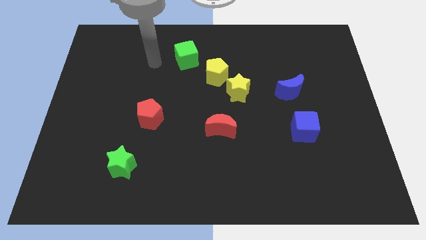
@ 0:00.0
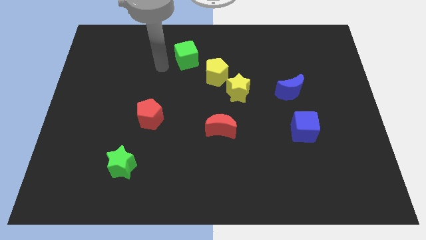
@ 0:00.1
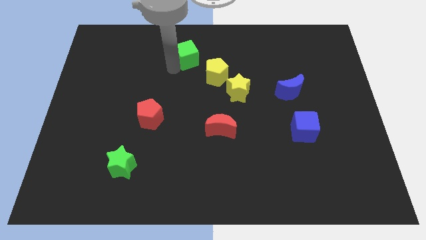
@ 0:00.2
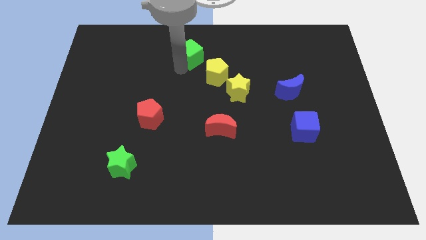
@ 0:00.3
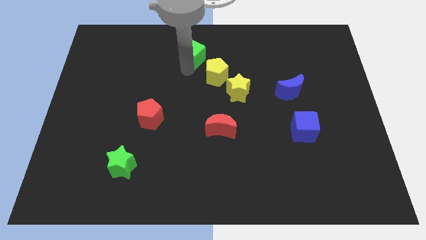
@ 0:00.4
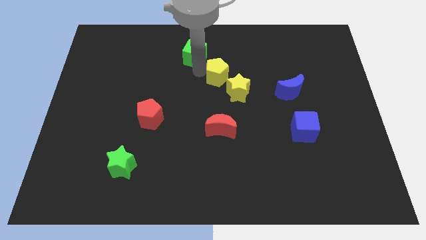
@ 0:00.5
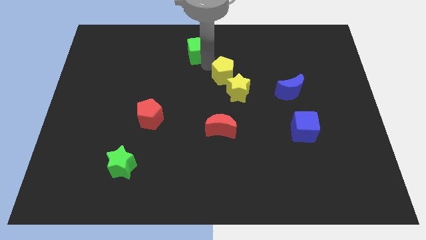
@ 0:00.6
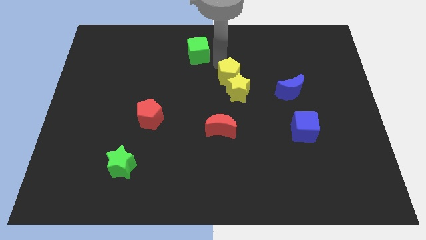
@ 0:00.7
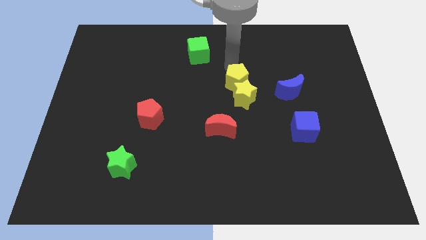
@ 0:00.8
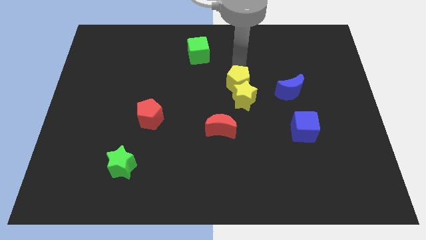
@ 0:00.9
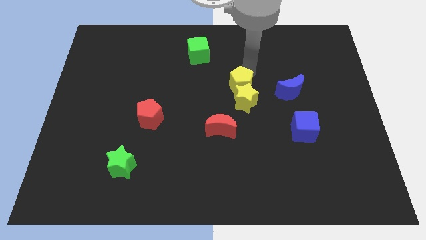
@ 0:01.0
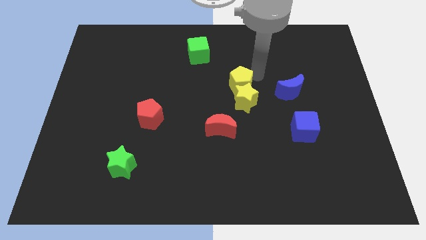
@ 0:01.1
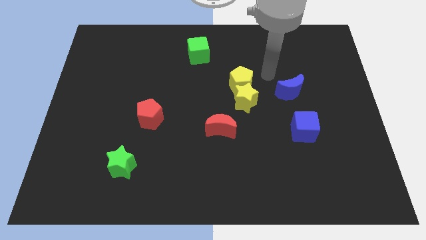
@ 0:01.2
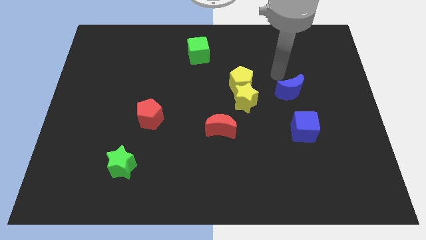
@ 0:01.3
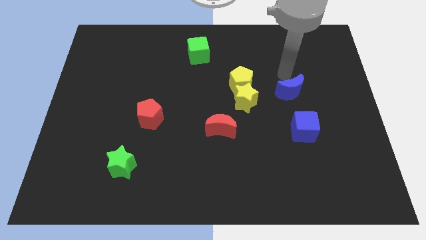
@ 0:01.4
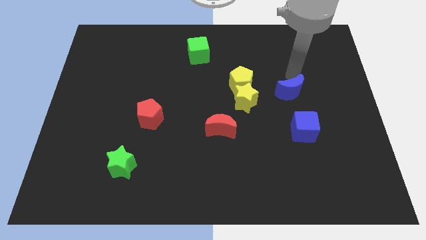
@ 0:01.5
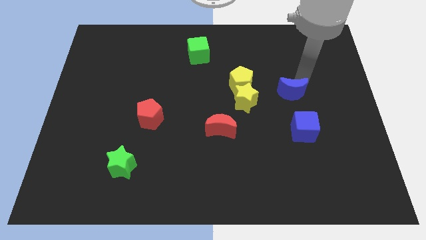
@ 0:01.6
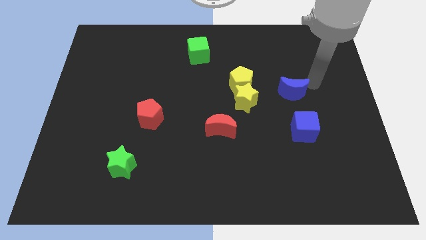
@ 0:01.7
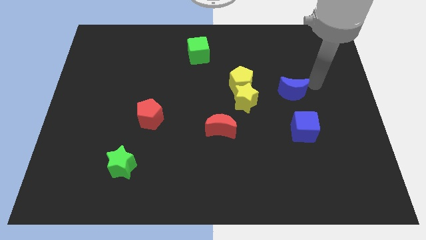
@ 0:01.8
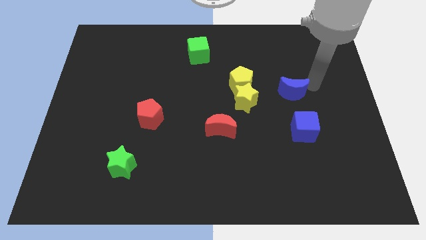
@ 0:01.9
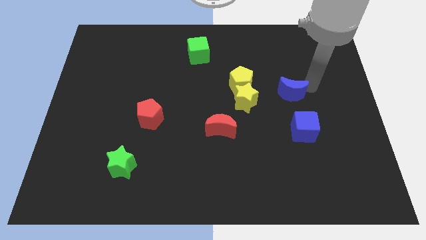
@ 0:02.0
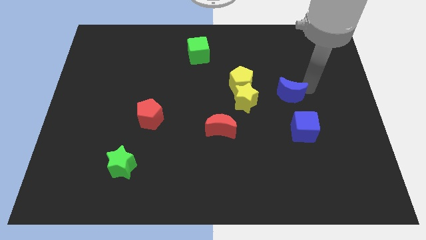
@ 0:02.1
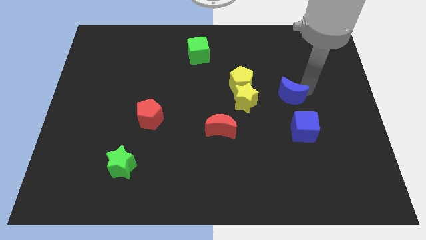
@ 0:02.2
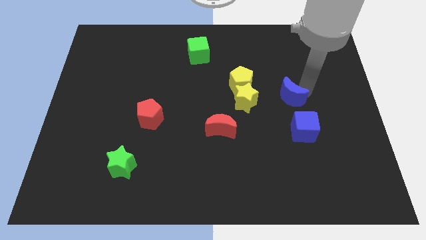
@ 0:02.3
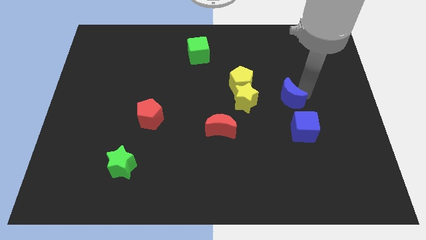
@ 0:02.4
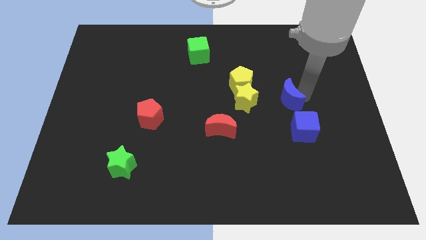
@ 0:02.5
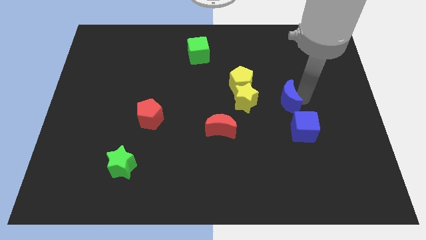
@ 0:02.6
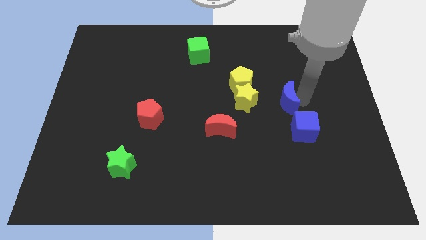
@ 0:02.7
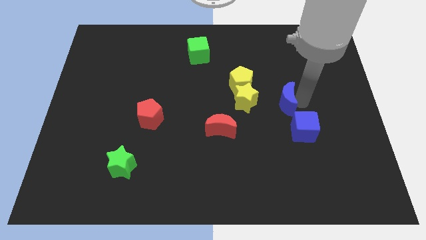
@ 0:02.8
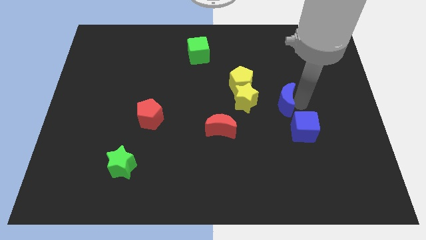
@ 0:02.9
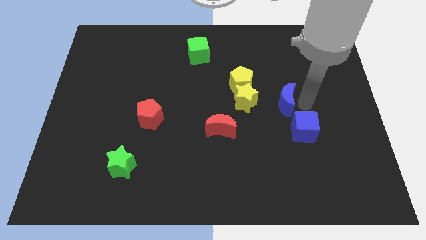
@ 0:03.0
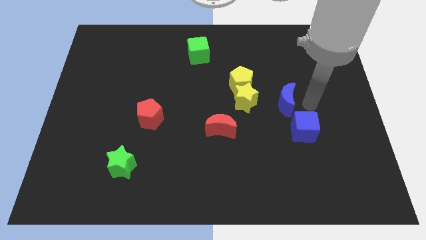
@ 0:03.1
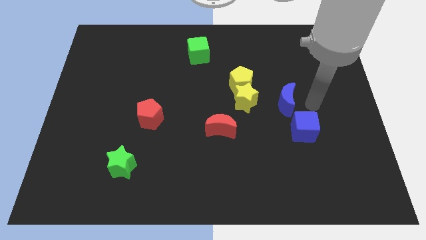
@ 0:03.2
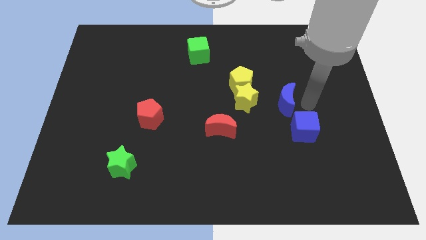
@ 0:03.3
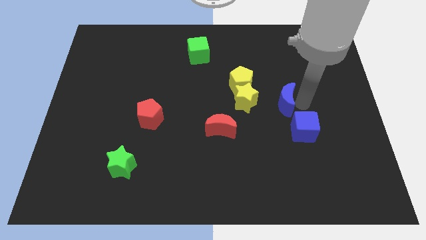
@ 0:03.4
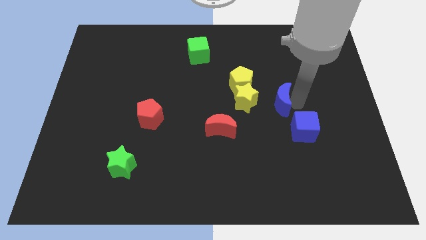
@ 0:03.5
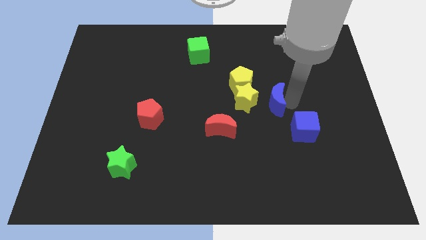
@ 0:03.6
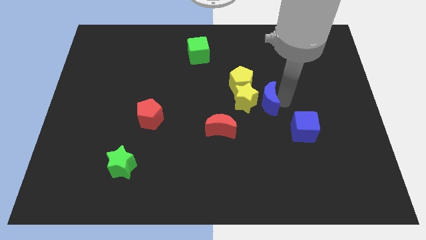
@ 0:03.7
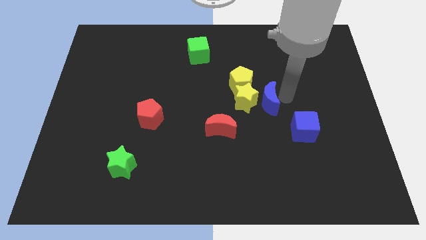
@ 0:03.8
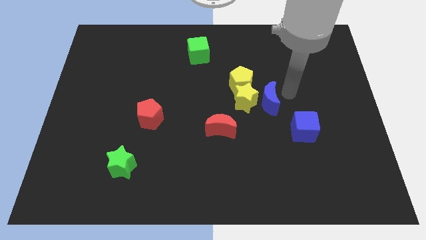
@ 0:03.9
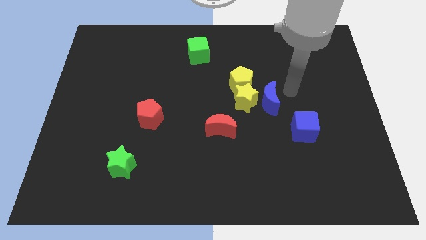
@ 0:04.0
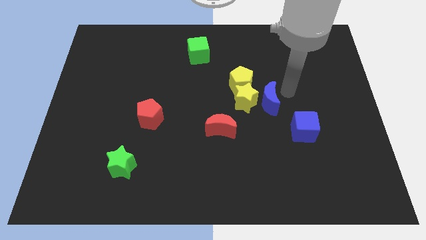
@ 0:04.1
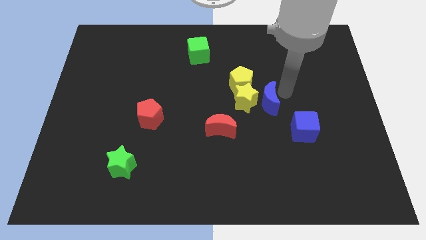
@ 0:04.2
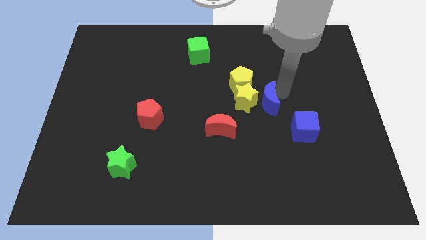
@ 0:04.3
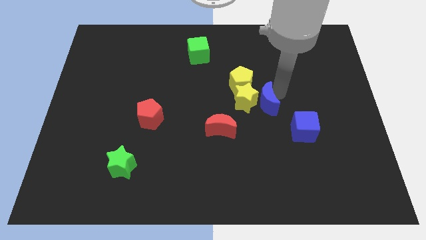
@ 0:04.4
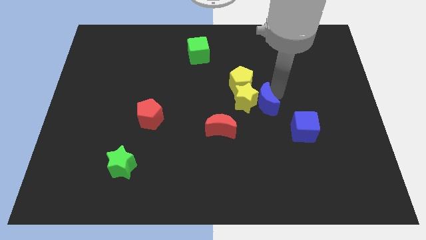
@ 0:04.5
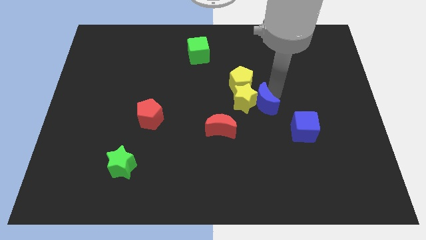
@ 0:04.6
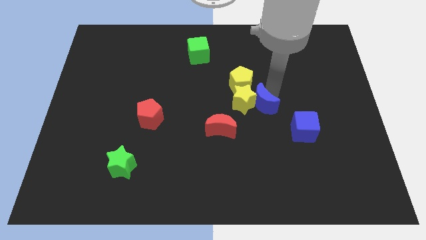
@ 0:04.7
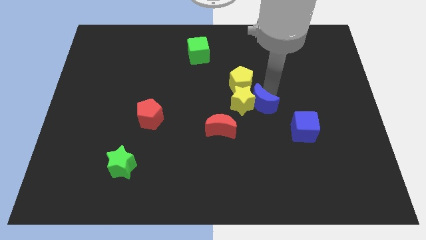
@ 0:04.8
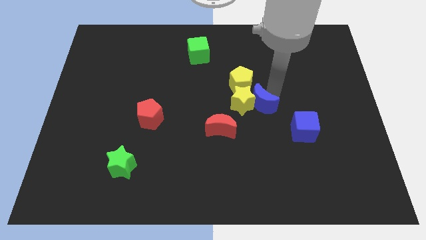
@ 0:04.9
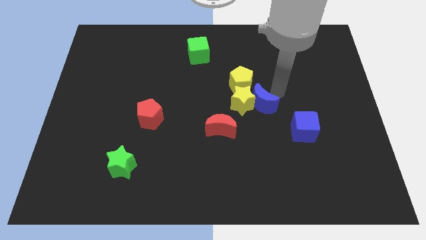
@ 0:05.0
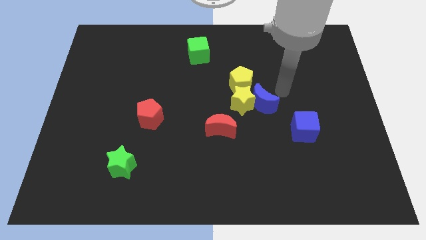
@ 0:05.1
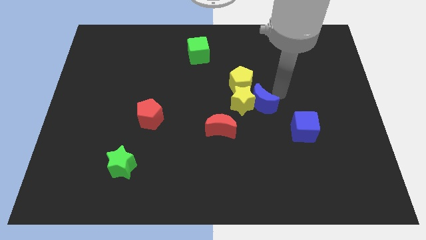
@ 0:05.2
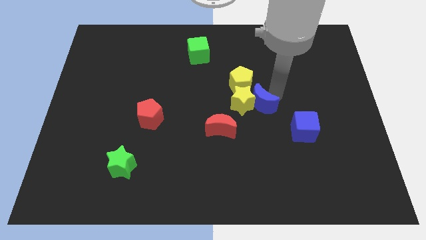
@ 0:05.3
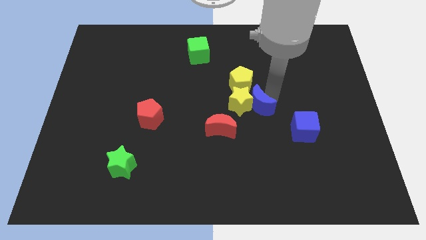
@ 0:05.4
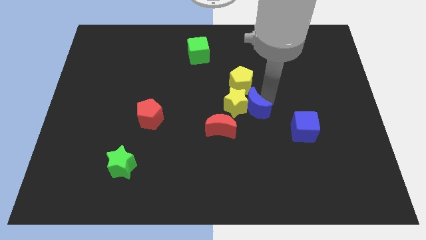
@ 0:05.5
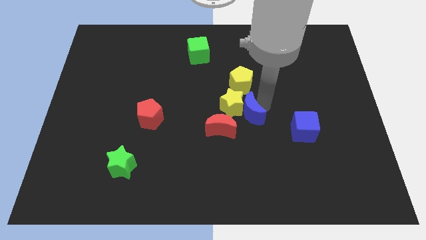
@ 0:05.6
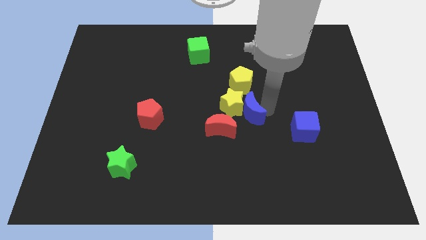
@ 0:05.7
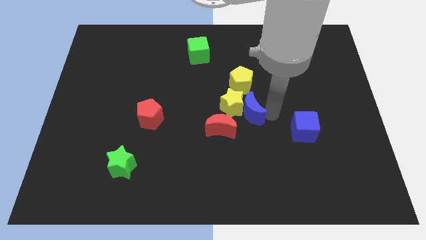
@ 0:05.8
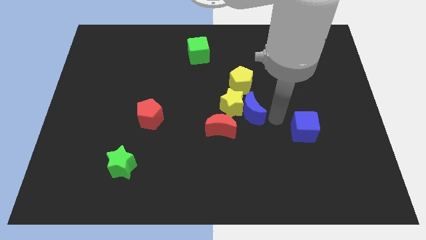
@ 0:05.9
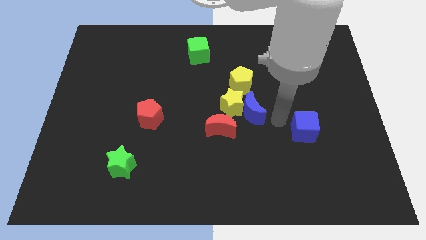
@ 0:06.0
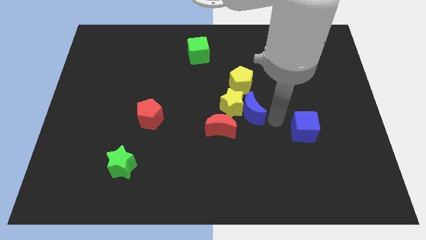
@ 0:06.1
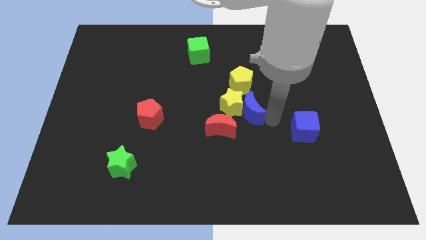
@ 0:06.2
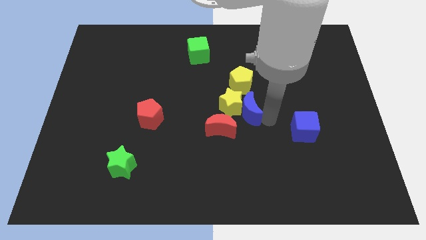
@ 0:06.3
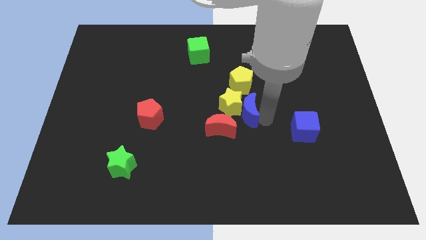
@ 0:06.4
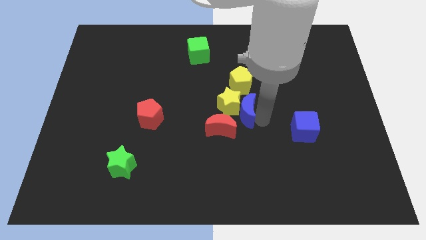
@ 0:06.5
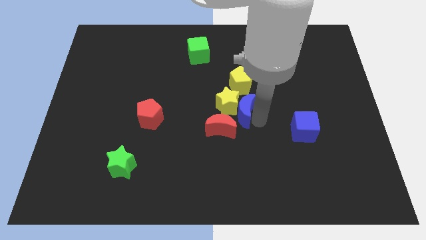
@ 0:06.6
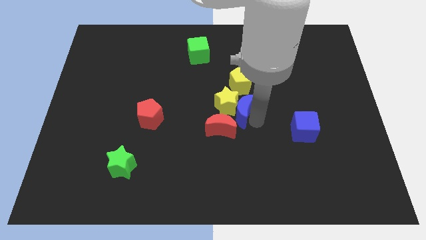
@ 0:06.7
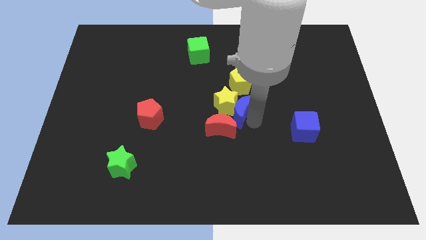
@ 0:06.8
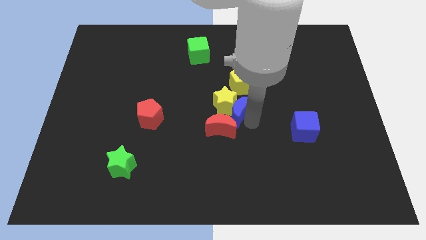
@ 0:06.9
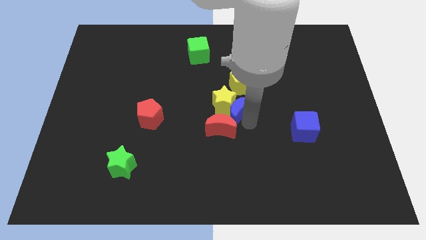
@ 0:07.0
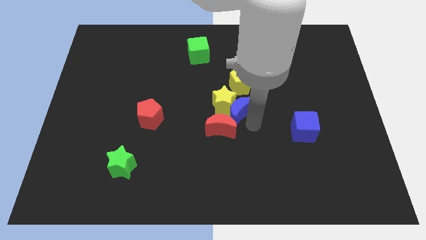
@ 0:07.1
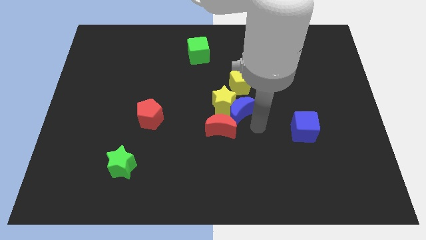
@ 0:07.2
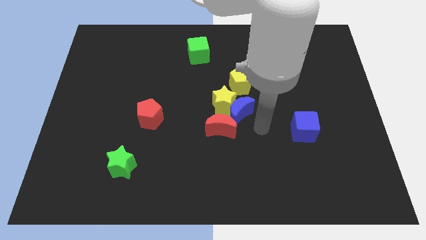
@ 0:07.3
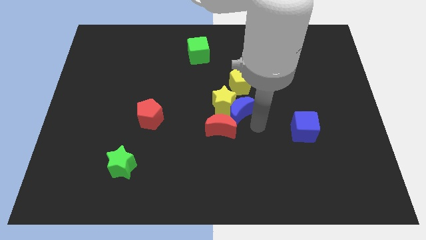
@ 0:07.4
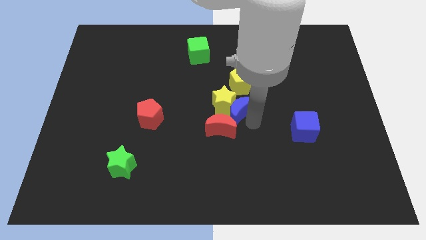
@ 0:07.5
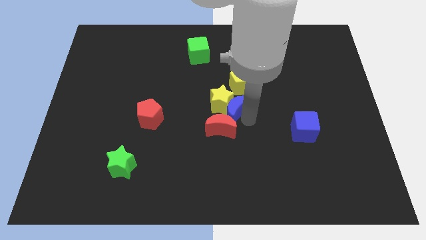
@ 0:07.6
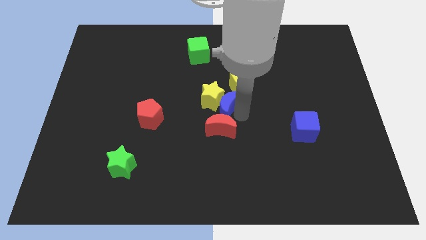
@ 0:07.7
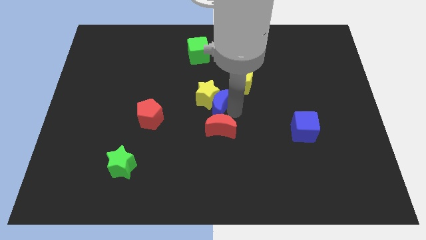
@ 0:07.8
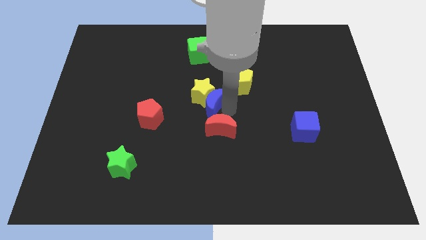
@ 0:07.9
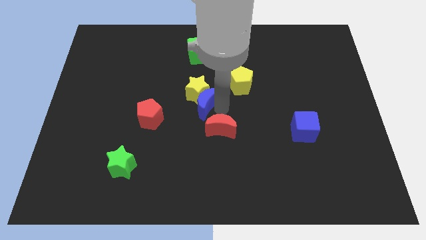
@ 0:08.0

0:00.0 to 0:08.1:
move the blue moon to the left
